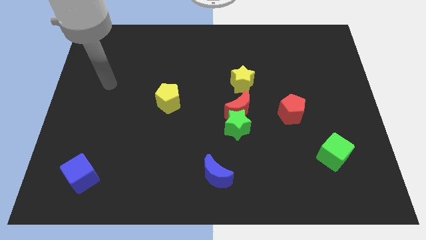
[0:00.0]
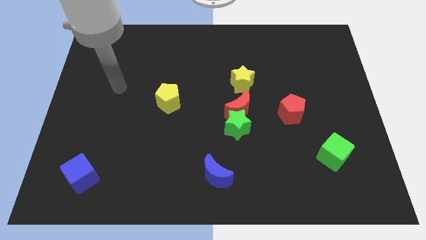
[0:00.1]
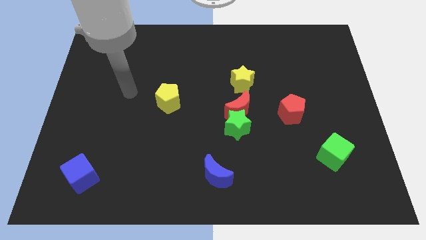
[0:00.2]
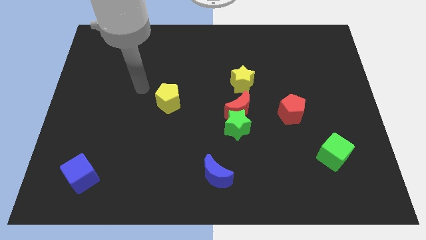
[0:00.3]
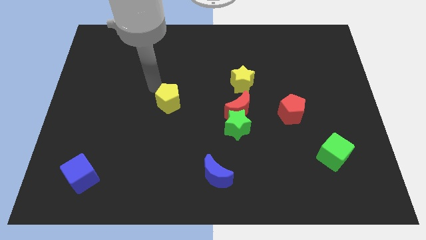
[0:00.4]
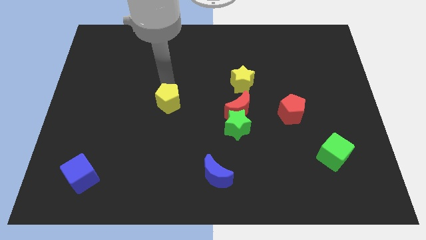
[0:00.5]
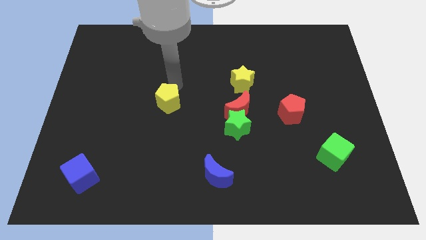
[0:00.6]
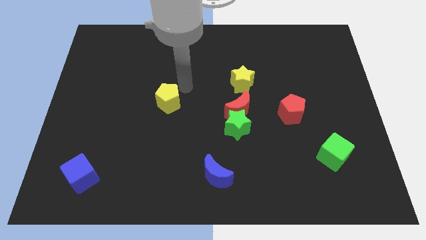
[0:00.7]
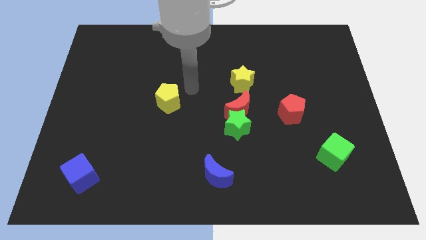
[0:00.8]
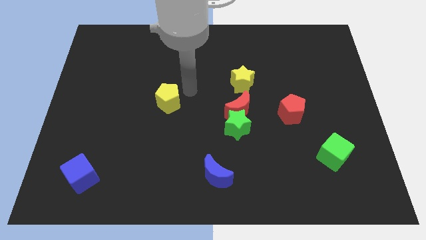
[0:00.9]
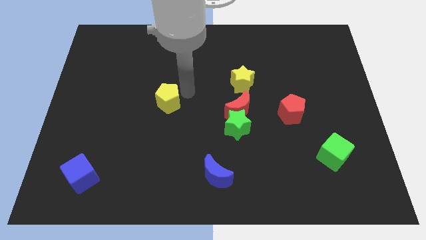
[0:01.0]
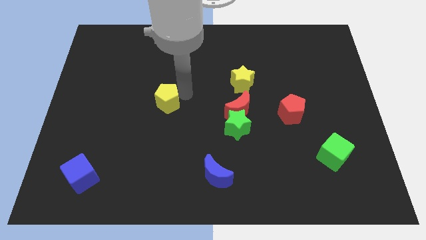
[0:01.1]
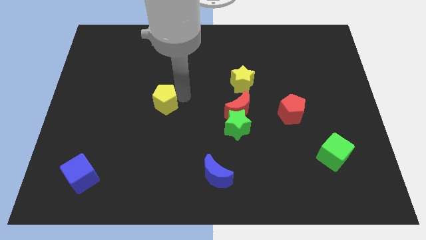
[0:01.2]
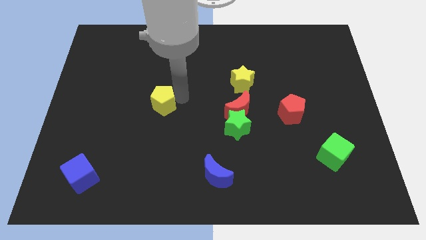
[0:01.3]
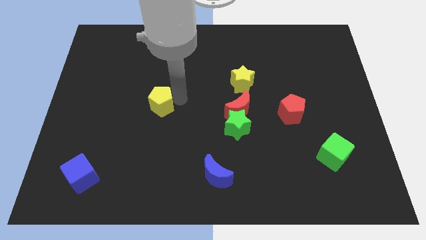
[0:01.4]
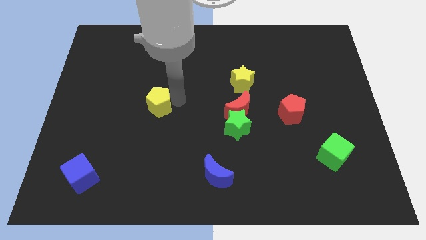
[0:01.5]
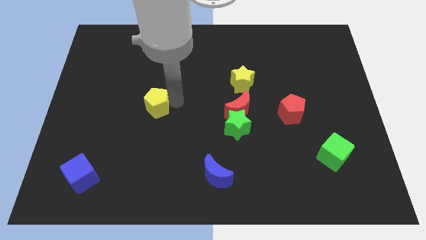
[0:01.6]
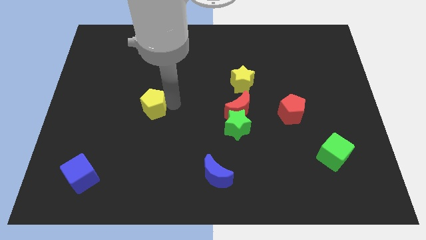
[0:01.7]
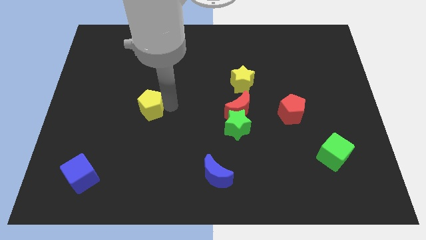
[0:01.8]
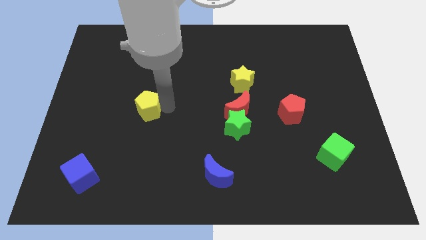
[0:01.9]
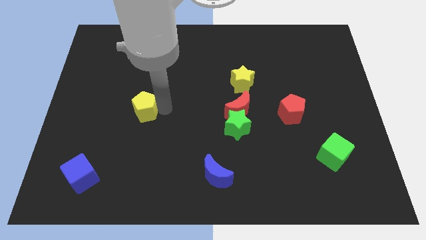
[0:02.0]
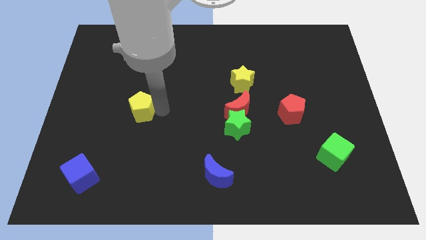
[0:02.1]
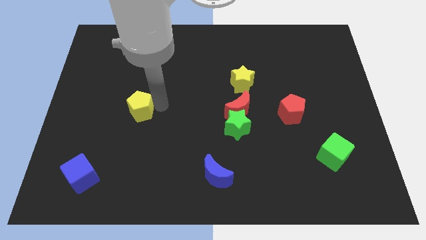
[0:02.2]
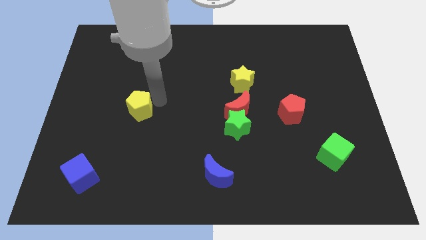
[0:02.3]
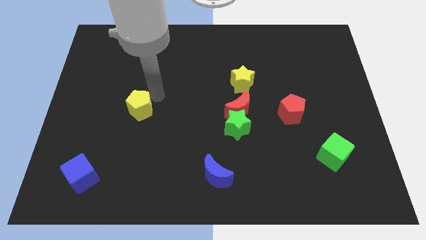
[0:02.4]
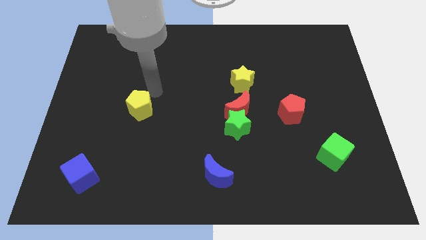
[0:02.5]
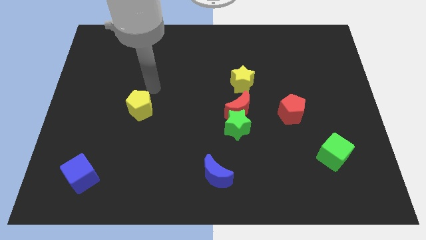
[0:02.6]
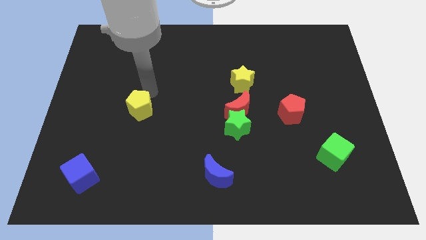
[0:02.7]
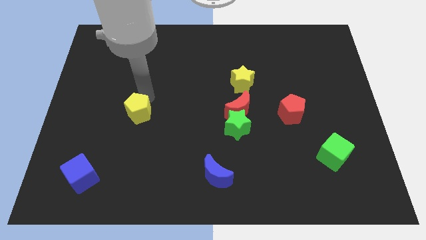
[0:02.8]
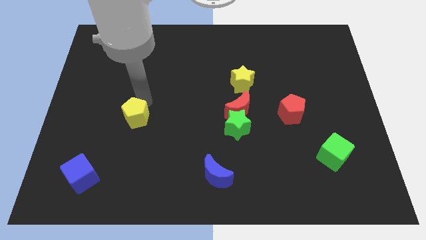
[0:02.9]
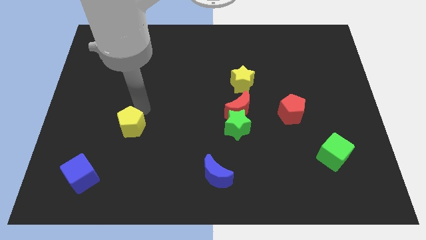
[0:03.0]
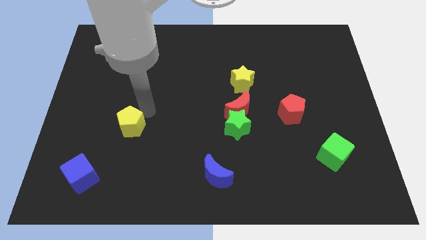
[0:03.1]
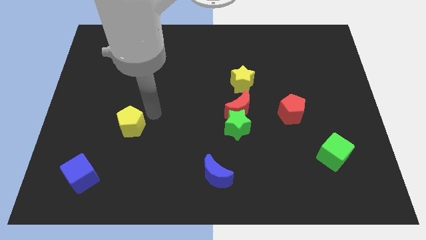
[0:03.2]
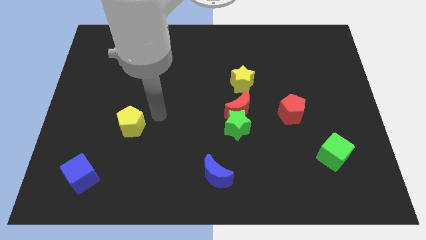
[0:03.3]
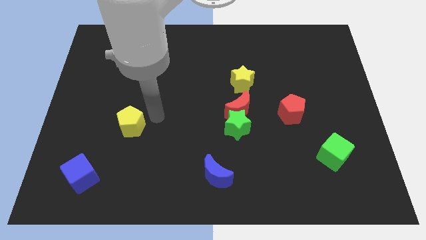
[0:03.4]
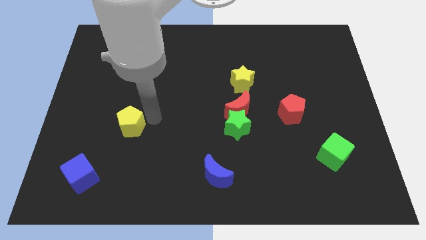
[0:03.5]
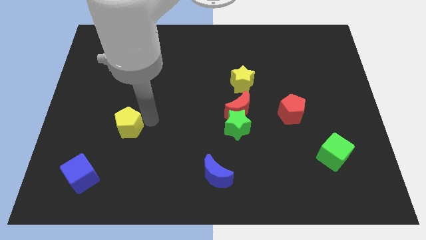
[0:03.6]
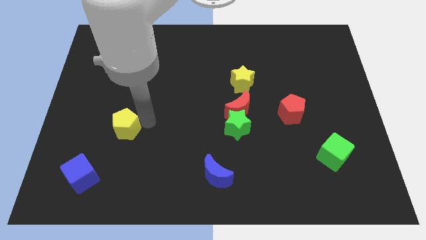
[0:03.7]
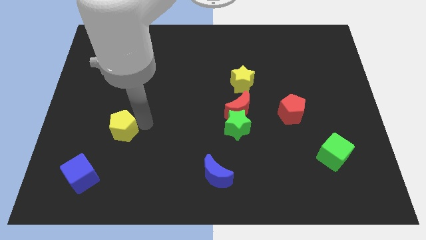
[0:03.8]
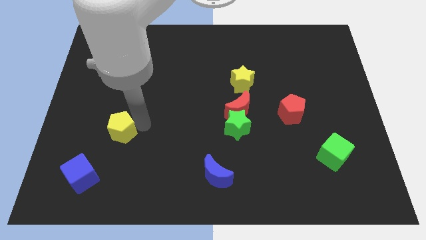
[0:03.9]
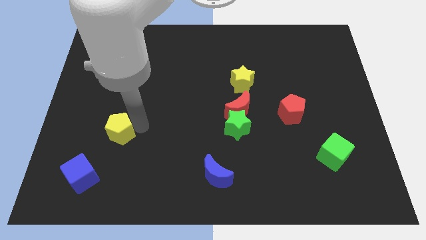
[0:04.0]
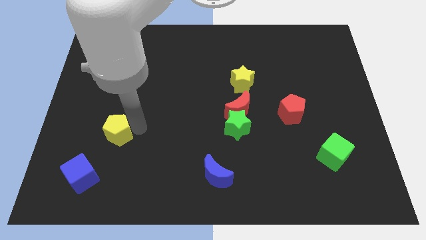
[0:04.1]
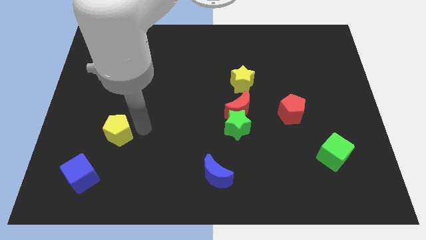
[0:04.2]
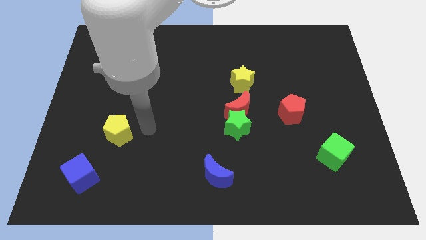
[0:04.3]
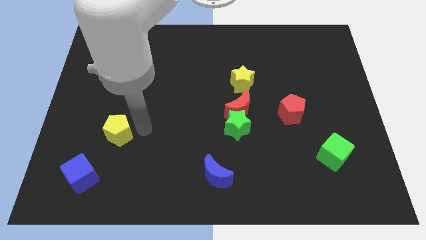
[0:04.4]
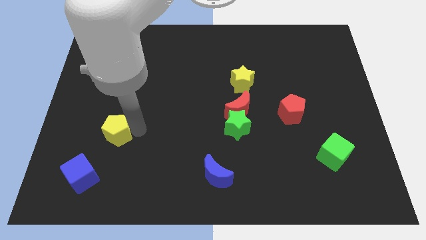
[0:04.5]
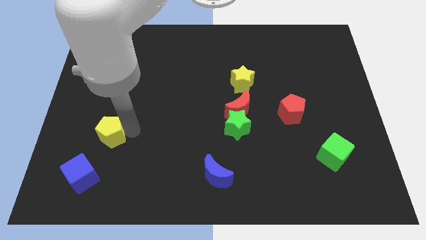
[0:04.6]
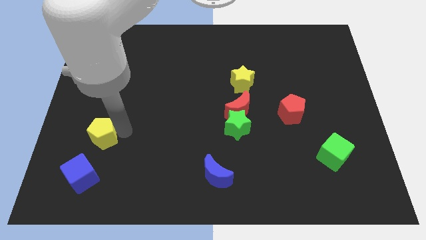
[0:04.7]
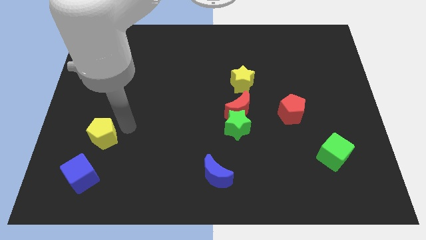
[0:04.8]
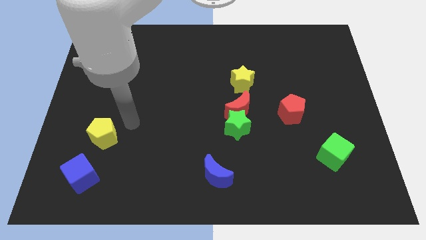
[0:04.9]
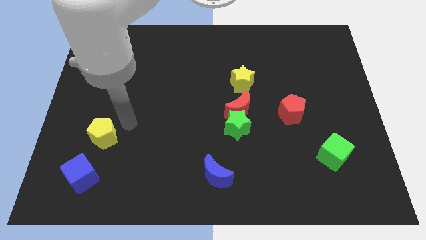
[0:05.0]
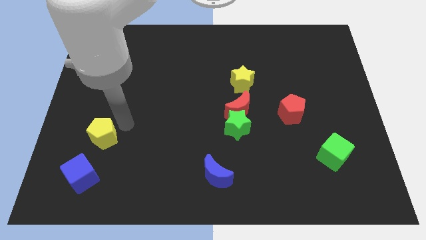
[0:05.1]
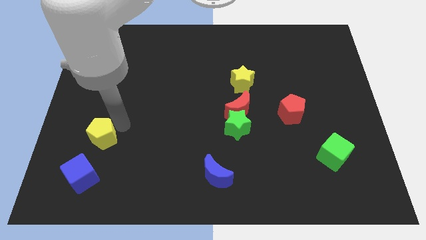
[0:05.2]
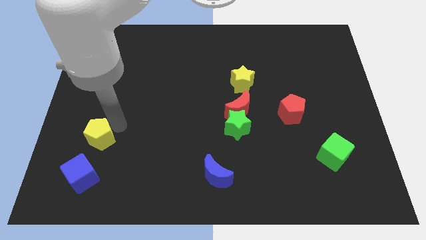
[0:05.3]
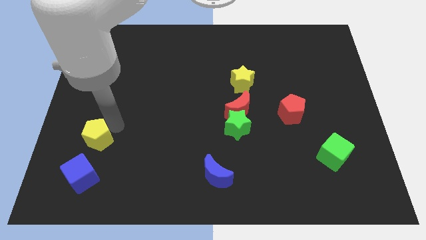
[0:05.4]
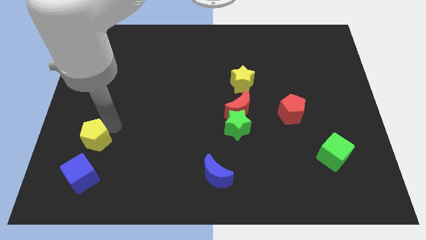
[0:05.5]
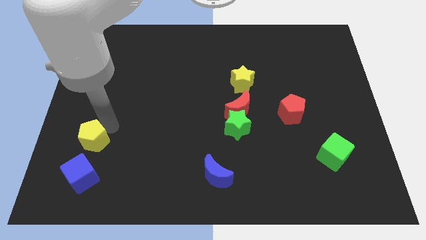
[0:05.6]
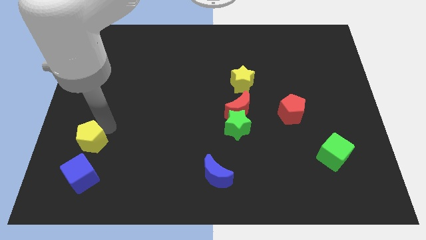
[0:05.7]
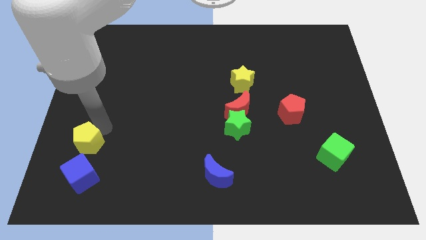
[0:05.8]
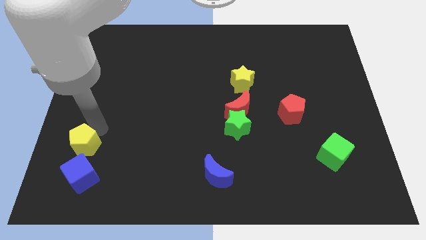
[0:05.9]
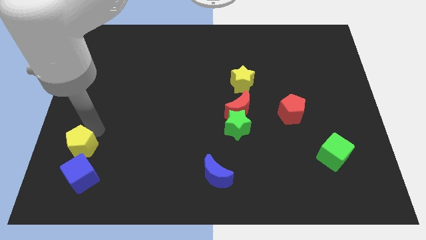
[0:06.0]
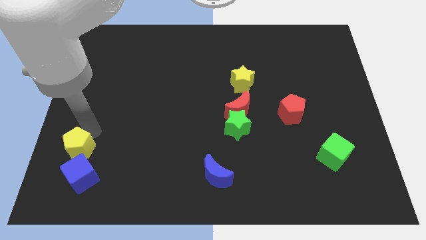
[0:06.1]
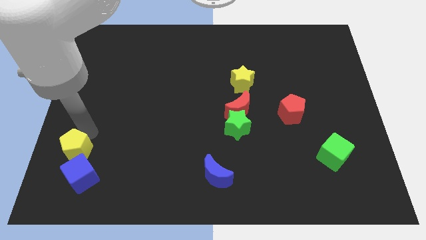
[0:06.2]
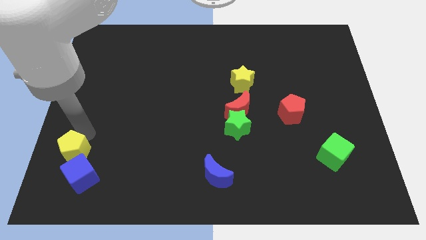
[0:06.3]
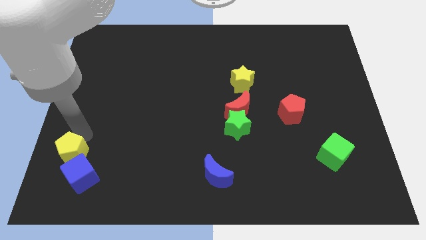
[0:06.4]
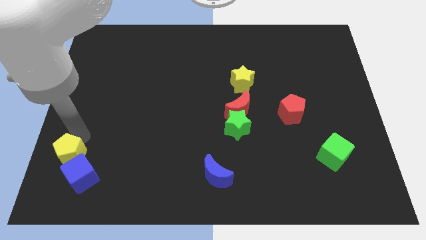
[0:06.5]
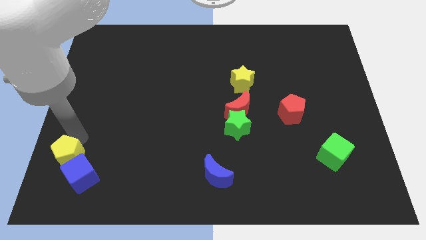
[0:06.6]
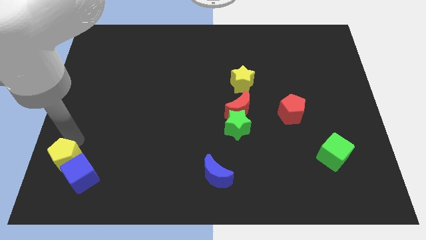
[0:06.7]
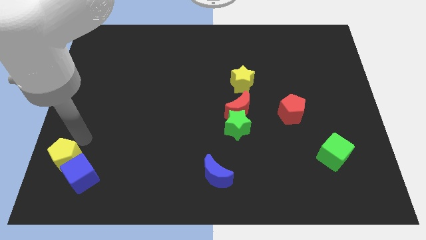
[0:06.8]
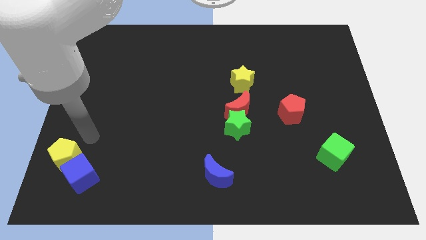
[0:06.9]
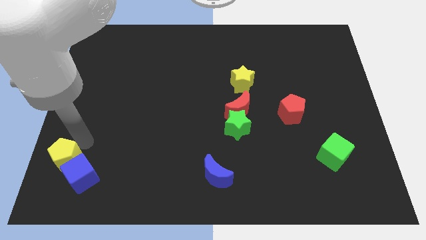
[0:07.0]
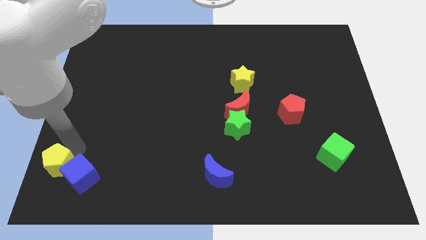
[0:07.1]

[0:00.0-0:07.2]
push the yellow pentagon to the bottom left
